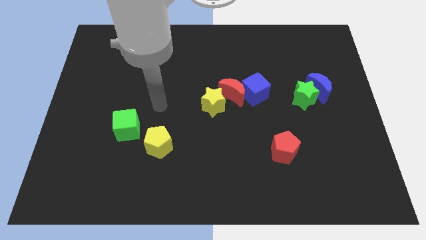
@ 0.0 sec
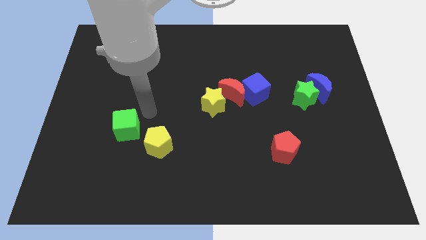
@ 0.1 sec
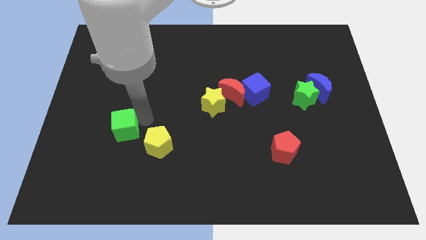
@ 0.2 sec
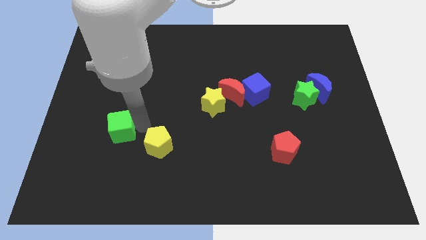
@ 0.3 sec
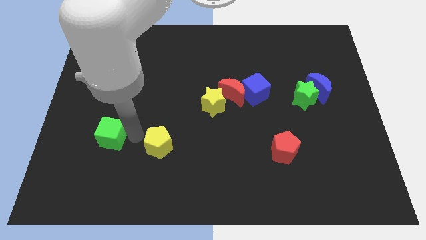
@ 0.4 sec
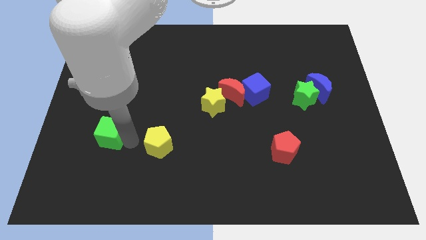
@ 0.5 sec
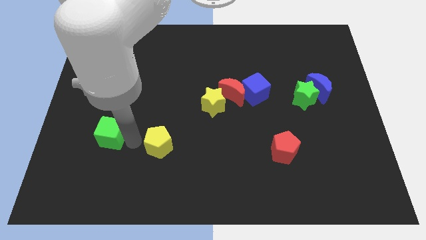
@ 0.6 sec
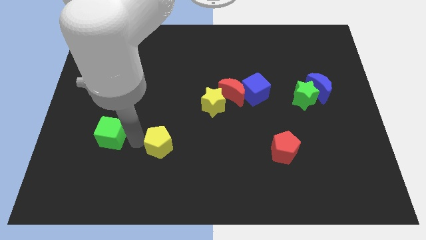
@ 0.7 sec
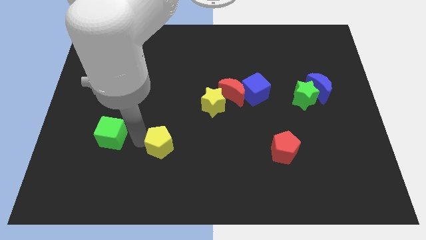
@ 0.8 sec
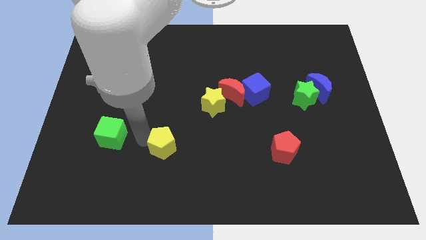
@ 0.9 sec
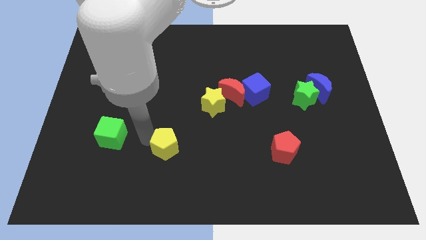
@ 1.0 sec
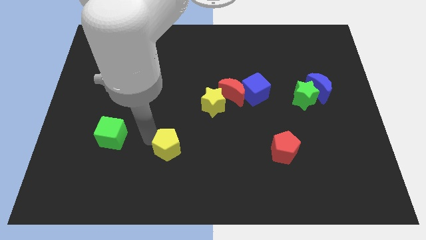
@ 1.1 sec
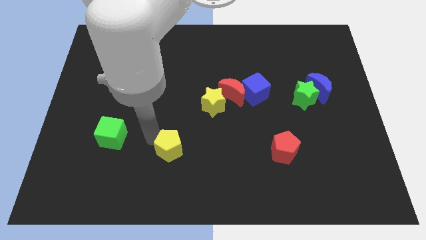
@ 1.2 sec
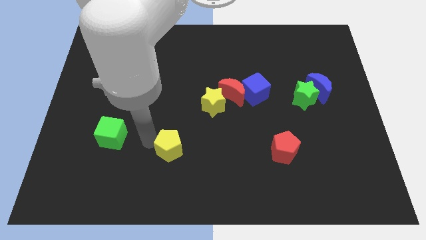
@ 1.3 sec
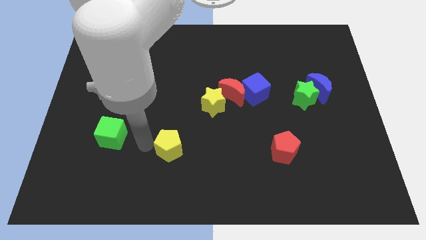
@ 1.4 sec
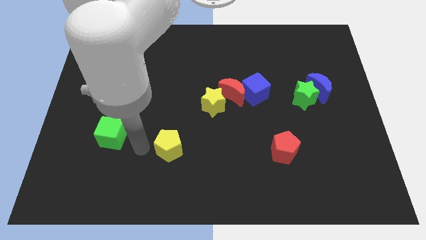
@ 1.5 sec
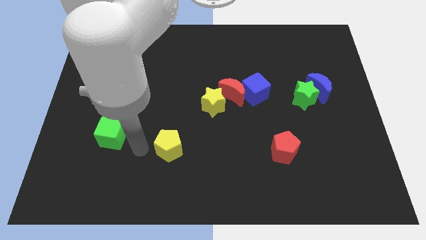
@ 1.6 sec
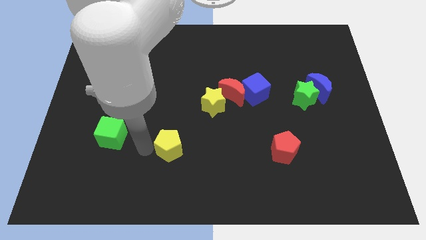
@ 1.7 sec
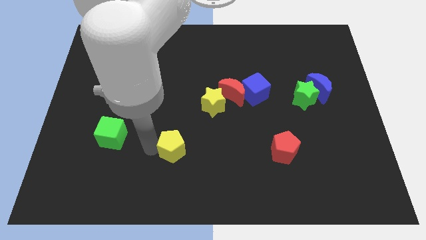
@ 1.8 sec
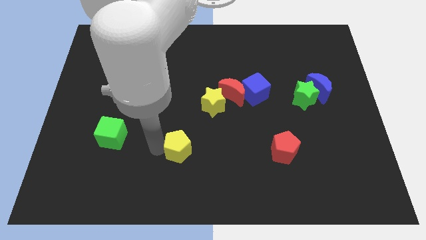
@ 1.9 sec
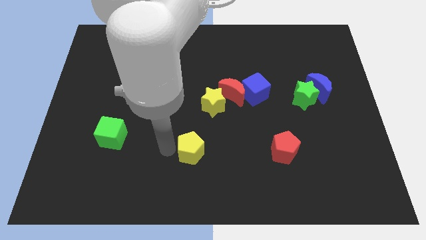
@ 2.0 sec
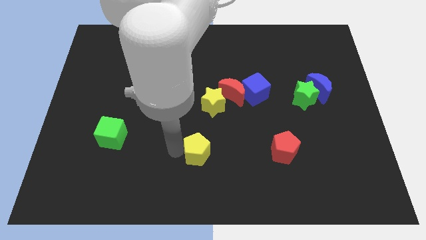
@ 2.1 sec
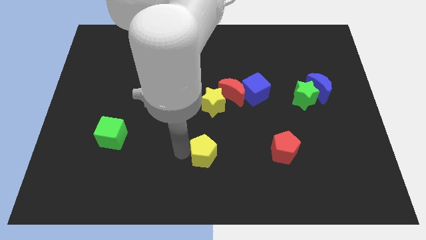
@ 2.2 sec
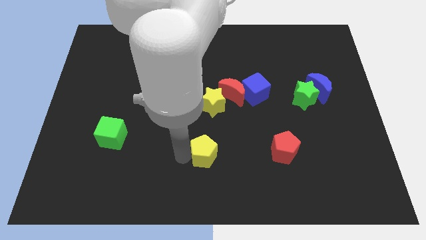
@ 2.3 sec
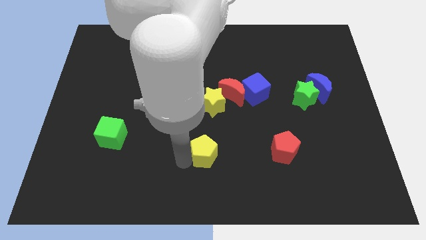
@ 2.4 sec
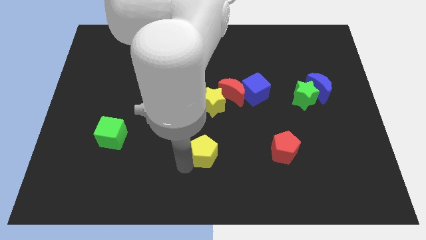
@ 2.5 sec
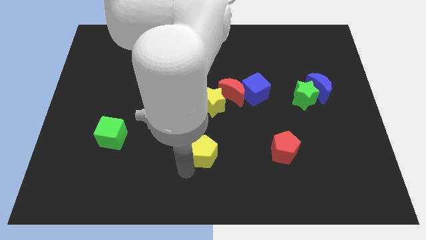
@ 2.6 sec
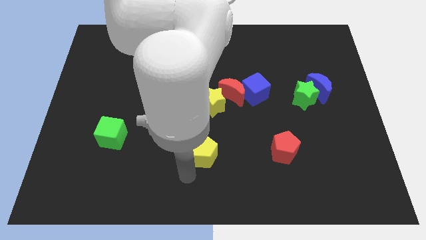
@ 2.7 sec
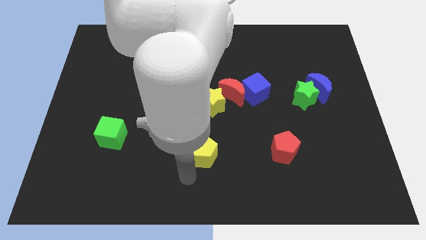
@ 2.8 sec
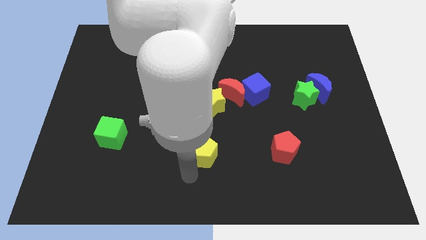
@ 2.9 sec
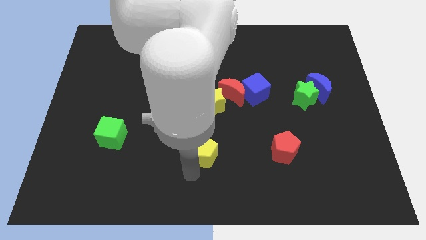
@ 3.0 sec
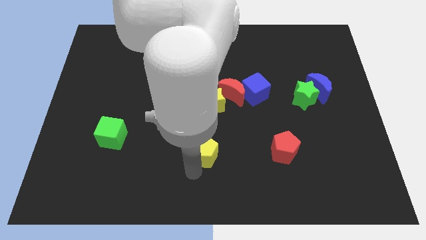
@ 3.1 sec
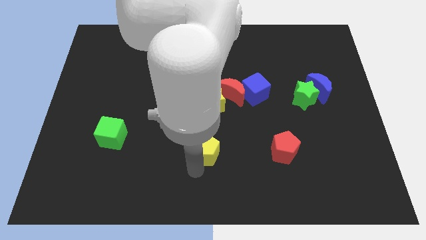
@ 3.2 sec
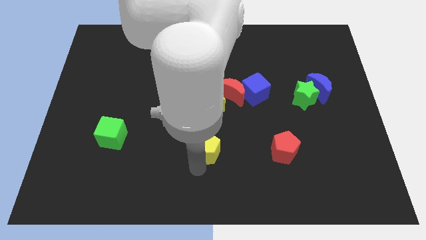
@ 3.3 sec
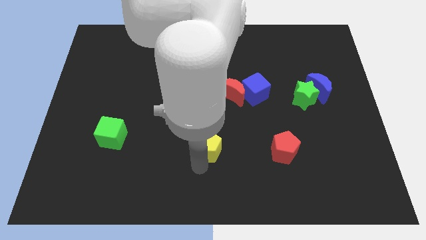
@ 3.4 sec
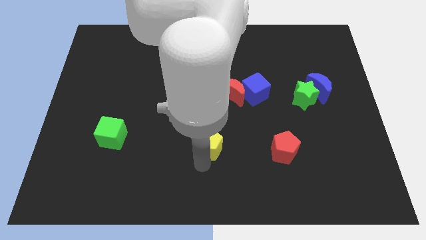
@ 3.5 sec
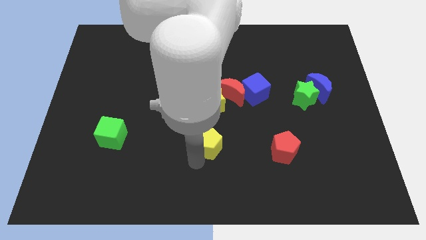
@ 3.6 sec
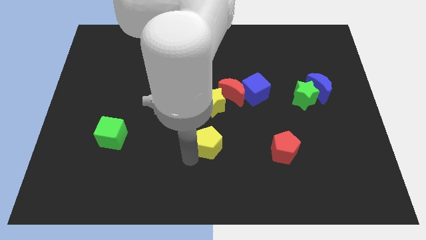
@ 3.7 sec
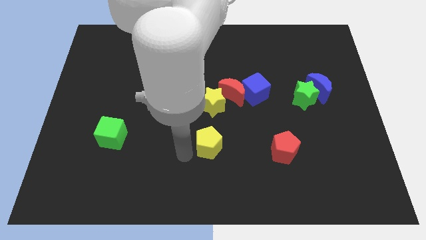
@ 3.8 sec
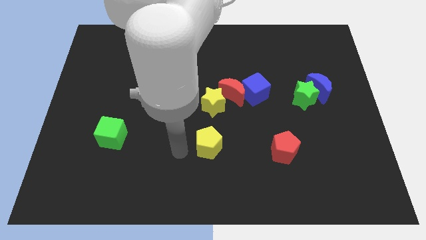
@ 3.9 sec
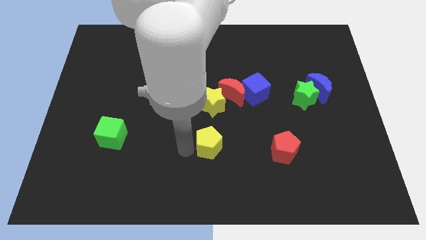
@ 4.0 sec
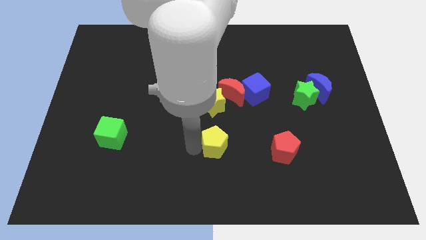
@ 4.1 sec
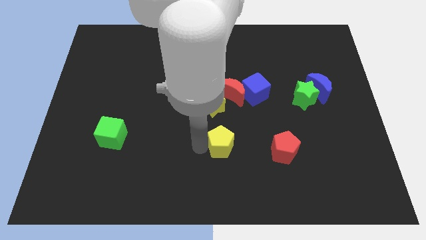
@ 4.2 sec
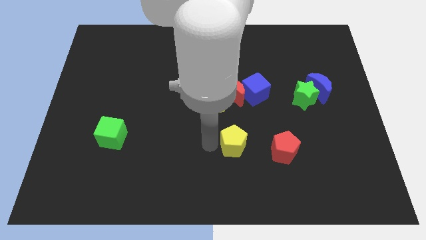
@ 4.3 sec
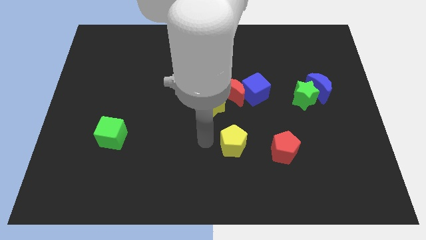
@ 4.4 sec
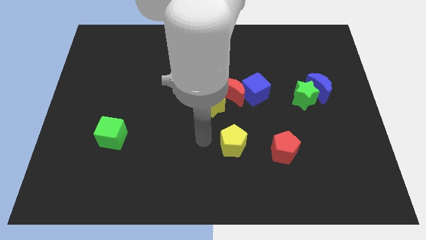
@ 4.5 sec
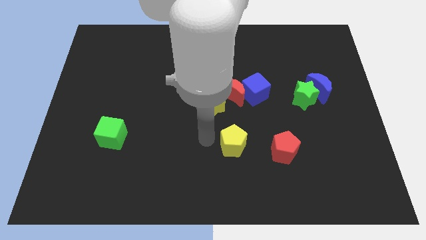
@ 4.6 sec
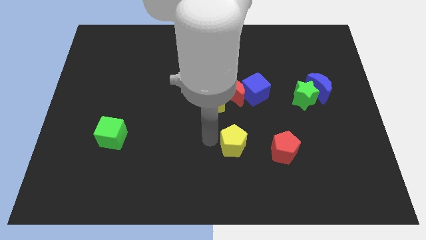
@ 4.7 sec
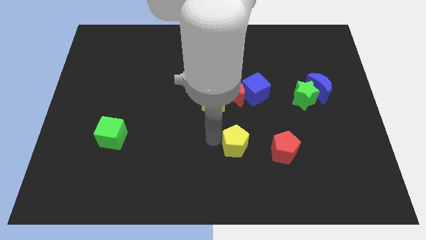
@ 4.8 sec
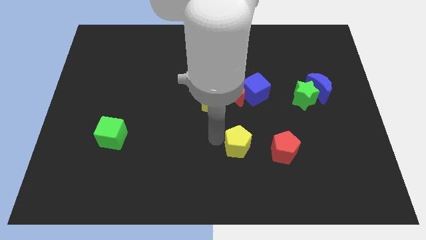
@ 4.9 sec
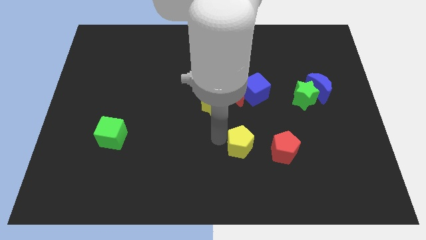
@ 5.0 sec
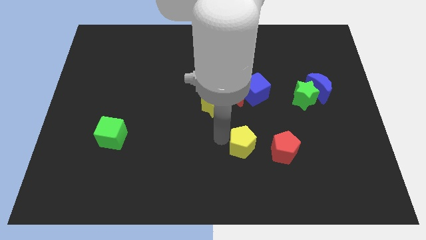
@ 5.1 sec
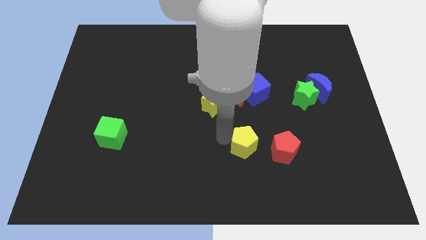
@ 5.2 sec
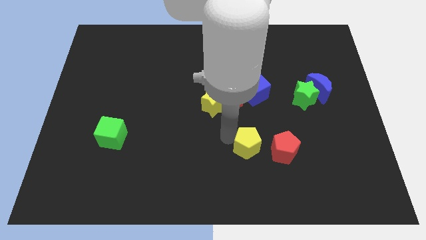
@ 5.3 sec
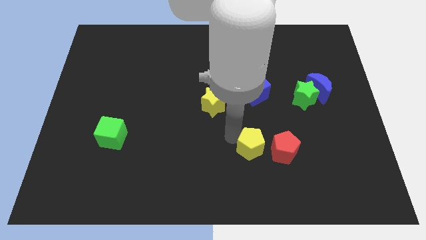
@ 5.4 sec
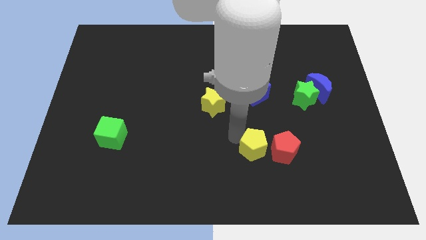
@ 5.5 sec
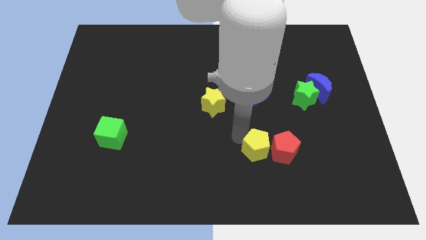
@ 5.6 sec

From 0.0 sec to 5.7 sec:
slide the yellow pentagon next to the red pentagon

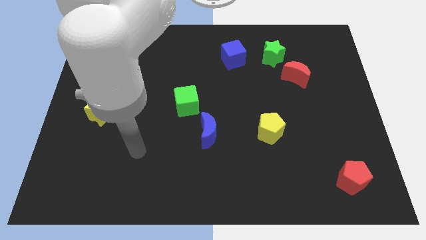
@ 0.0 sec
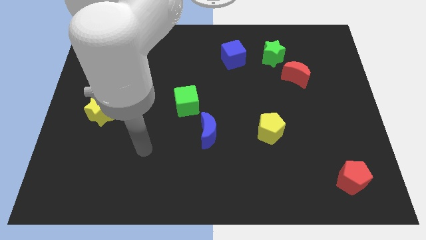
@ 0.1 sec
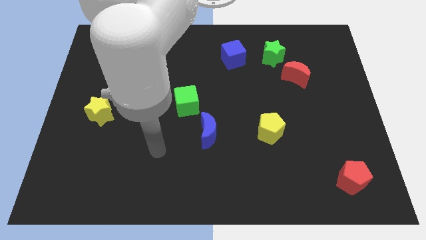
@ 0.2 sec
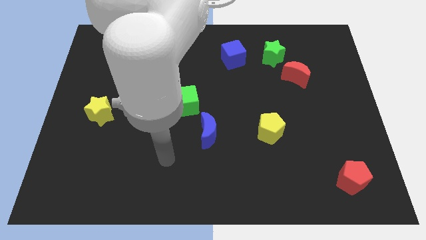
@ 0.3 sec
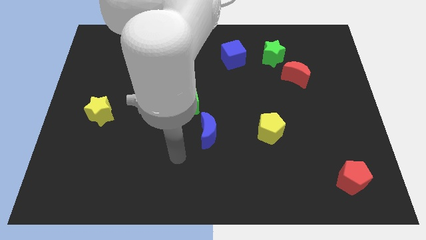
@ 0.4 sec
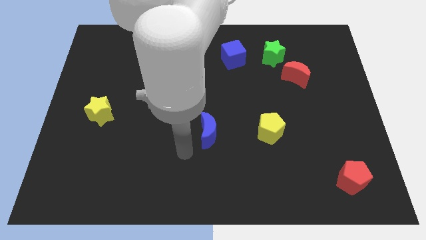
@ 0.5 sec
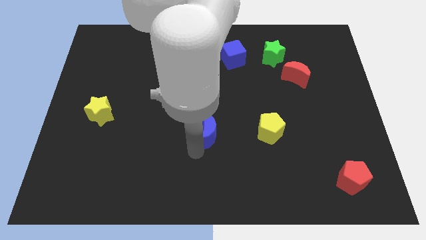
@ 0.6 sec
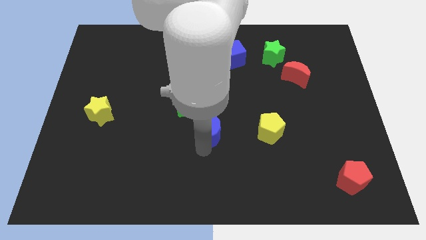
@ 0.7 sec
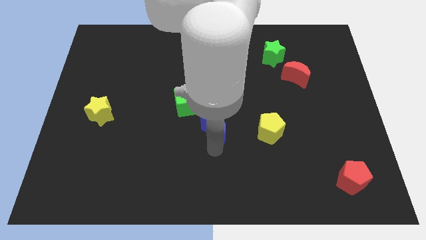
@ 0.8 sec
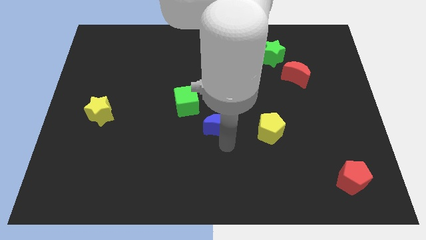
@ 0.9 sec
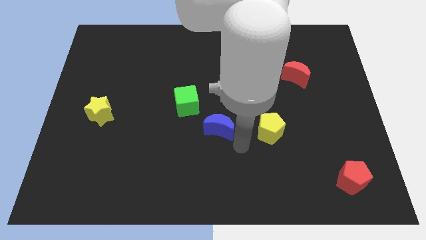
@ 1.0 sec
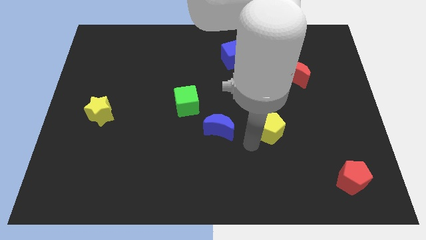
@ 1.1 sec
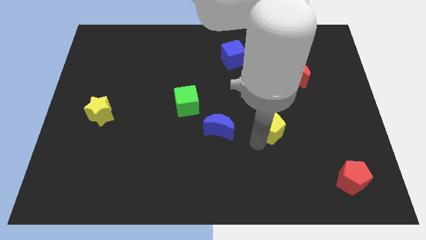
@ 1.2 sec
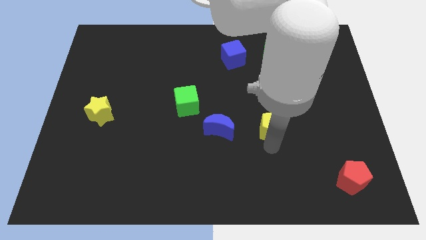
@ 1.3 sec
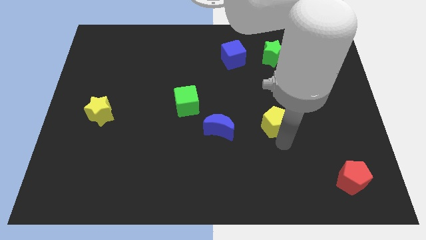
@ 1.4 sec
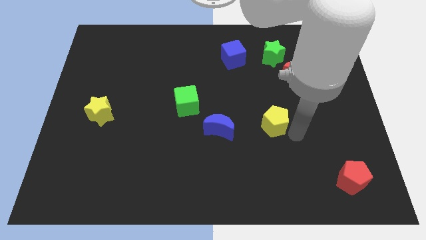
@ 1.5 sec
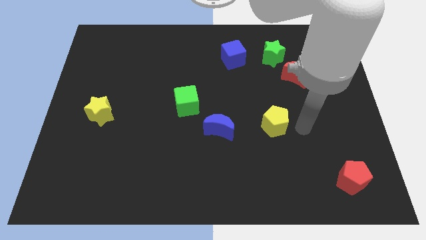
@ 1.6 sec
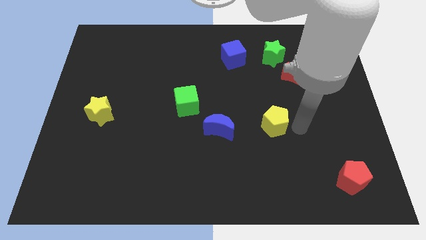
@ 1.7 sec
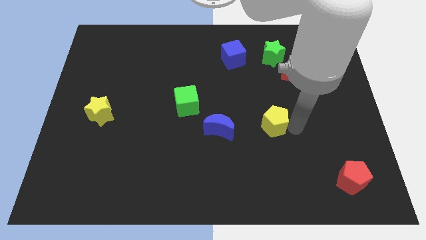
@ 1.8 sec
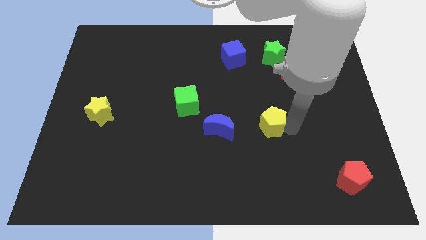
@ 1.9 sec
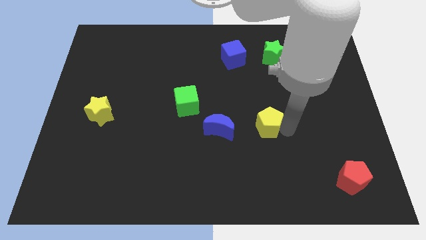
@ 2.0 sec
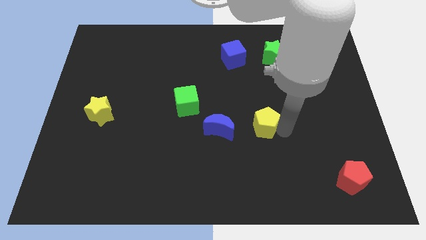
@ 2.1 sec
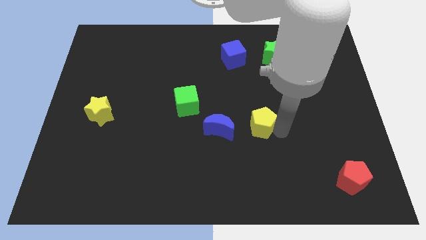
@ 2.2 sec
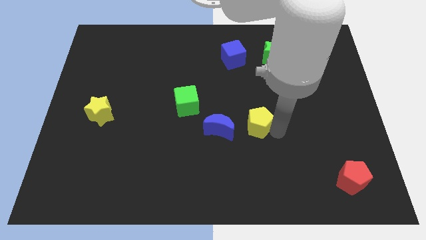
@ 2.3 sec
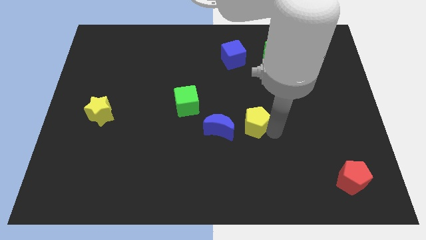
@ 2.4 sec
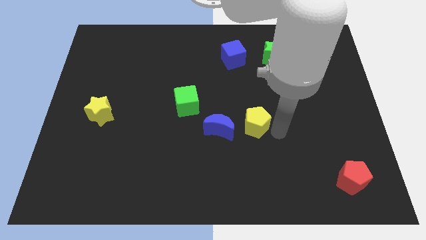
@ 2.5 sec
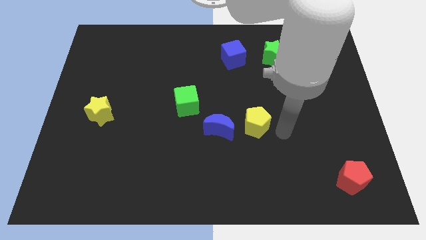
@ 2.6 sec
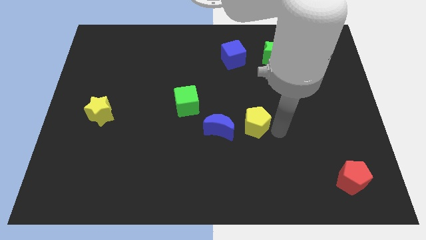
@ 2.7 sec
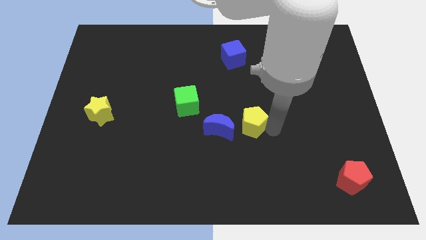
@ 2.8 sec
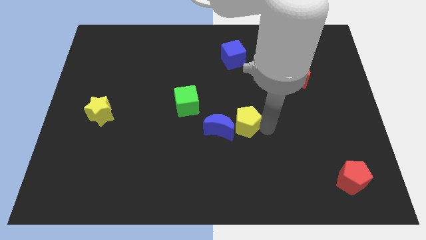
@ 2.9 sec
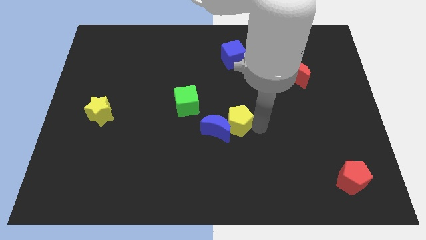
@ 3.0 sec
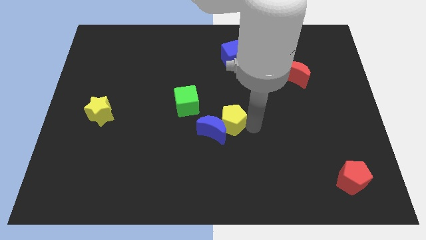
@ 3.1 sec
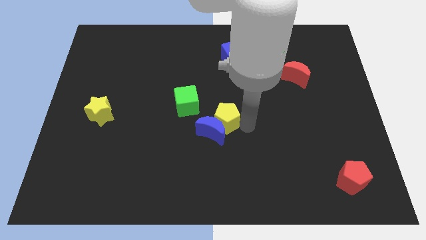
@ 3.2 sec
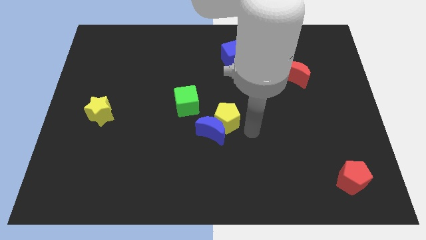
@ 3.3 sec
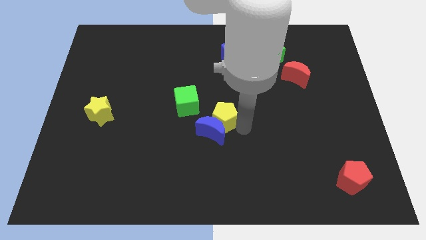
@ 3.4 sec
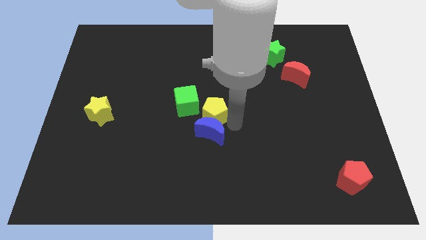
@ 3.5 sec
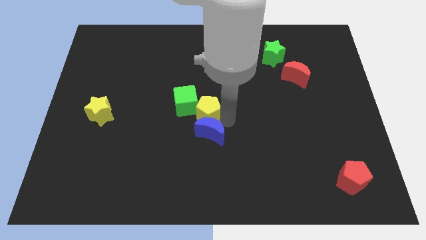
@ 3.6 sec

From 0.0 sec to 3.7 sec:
move the yellow pentagon to the green cube
